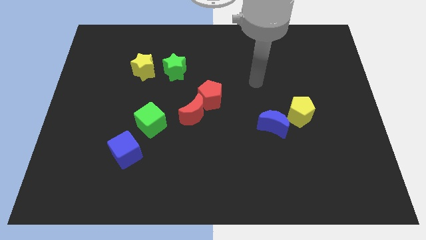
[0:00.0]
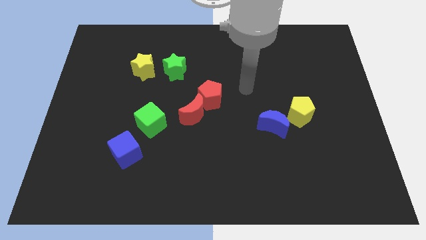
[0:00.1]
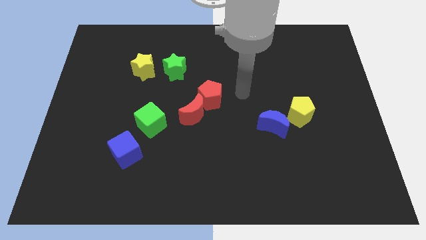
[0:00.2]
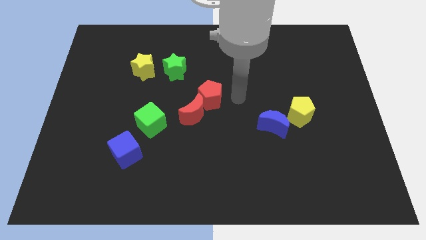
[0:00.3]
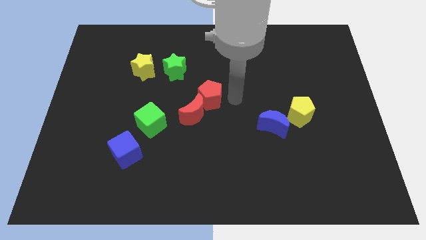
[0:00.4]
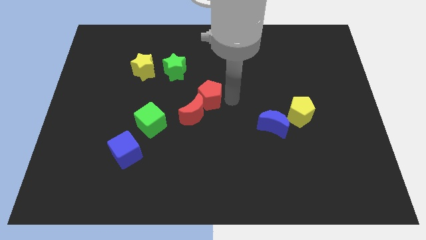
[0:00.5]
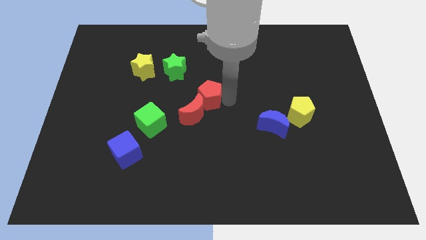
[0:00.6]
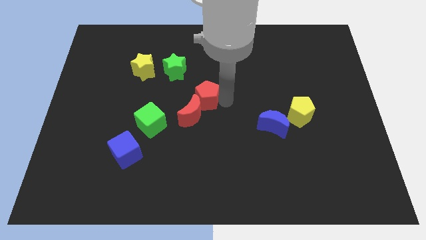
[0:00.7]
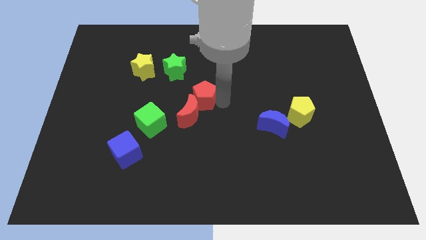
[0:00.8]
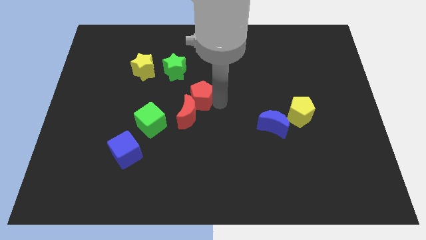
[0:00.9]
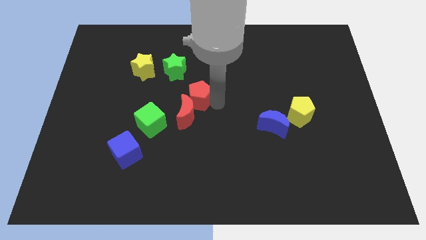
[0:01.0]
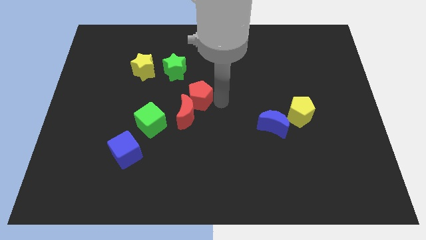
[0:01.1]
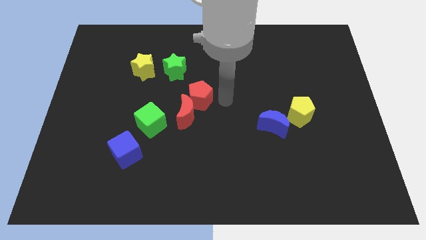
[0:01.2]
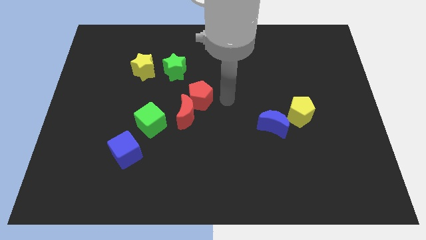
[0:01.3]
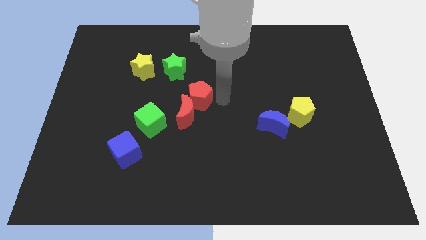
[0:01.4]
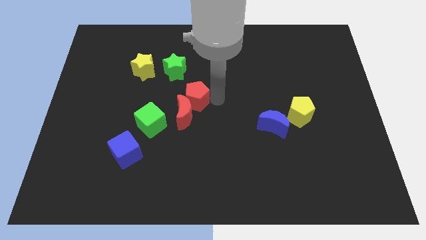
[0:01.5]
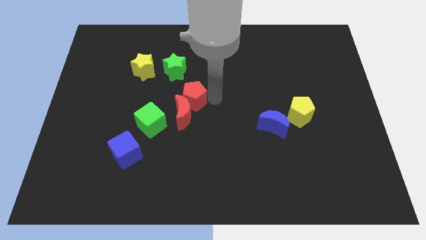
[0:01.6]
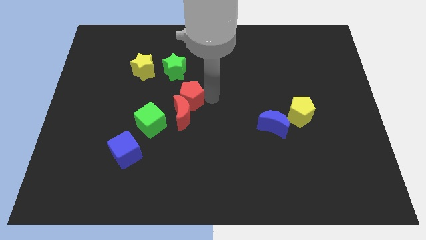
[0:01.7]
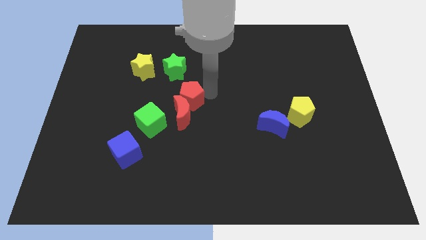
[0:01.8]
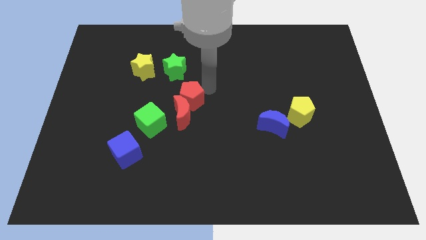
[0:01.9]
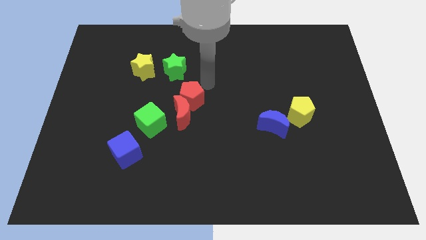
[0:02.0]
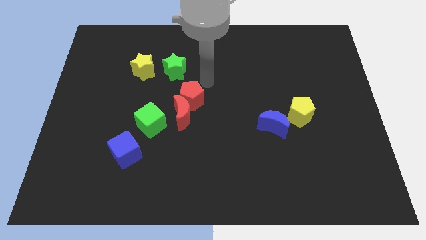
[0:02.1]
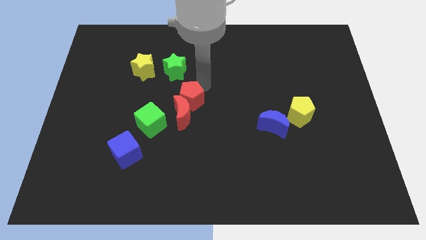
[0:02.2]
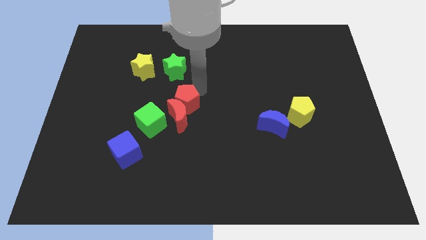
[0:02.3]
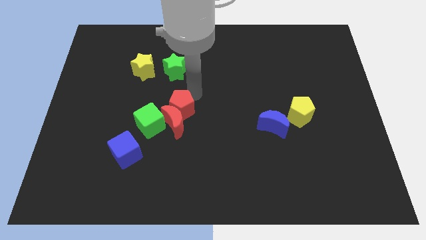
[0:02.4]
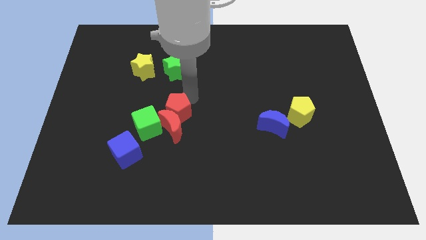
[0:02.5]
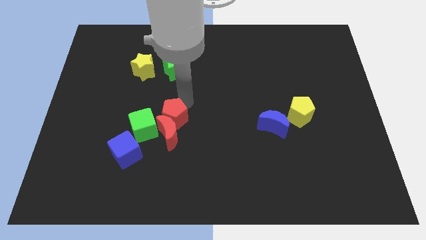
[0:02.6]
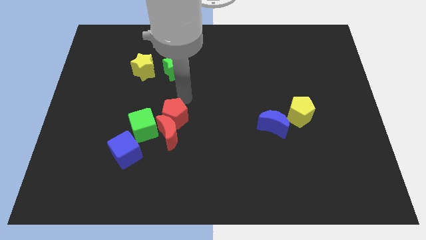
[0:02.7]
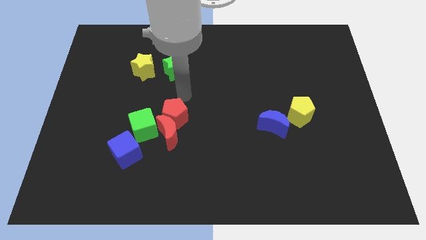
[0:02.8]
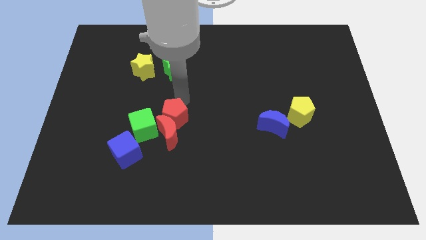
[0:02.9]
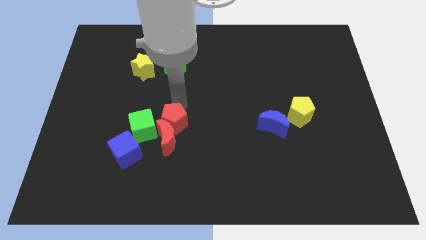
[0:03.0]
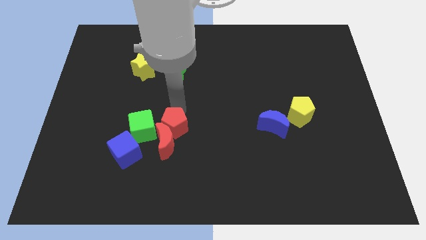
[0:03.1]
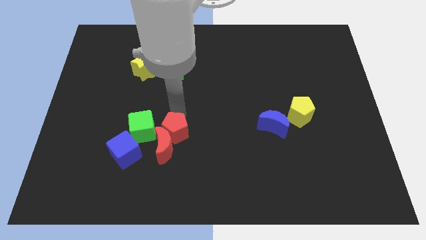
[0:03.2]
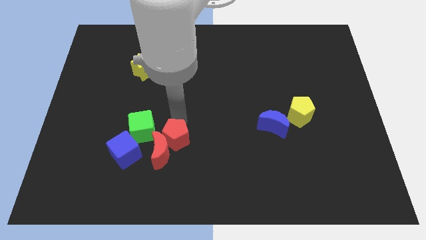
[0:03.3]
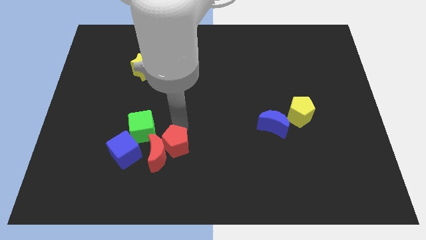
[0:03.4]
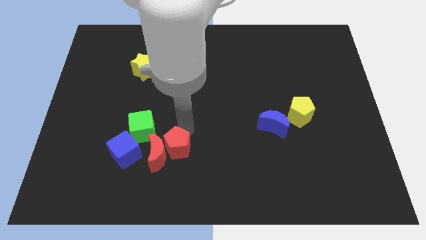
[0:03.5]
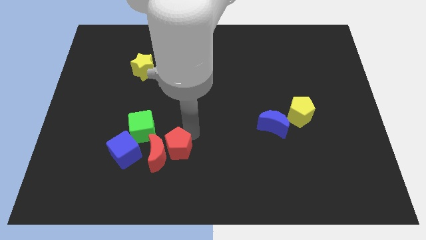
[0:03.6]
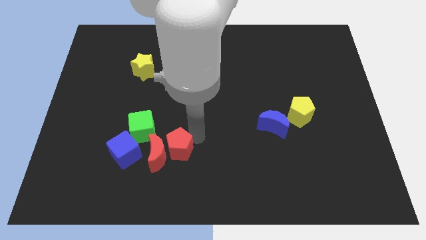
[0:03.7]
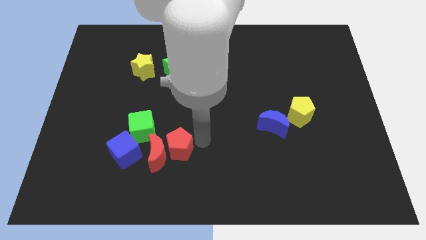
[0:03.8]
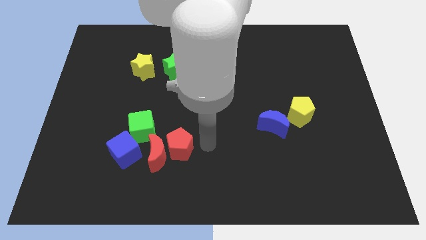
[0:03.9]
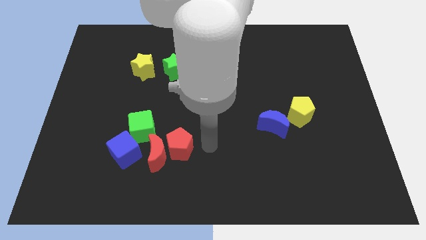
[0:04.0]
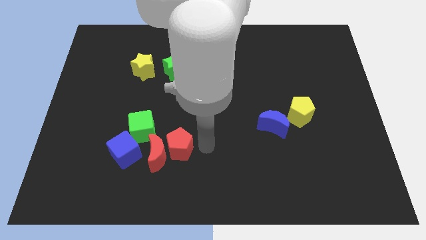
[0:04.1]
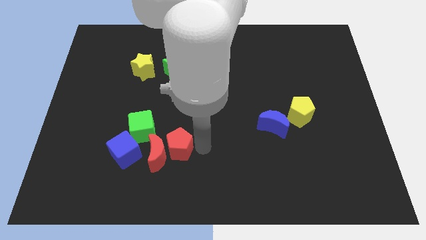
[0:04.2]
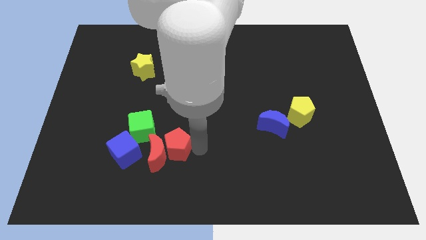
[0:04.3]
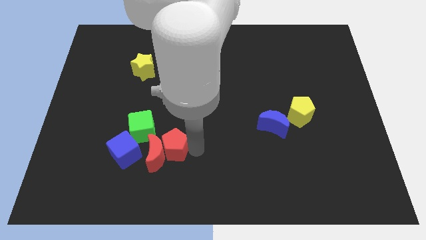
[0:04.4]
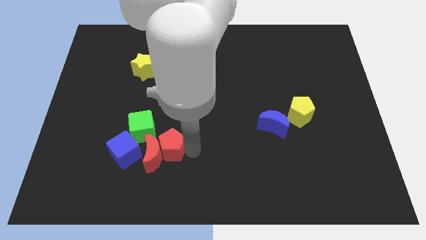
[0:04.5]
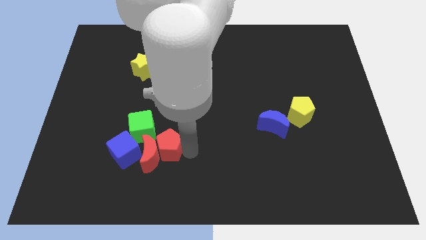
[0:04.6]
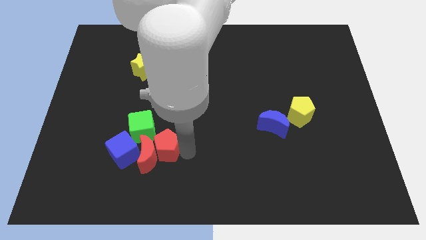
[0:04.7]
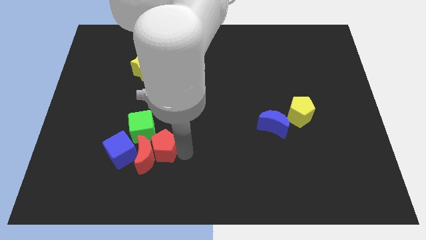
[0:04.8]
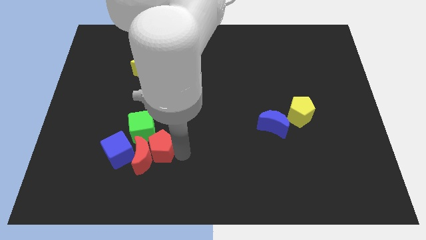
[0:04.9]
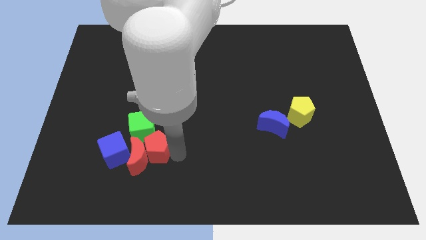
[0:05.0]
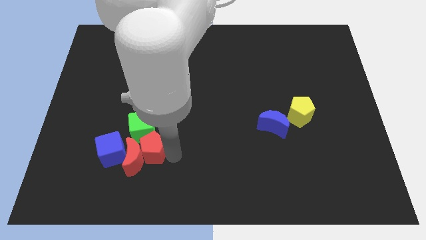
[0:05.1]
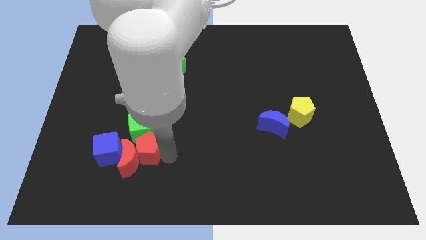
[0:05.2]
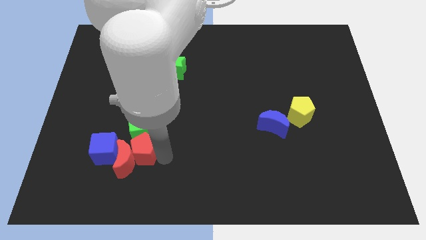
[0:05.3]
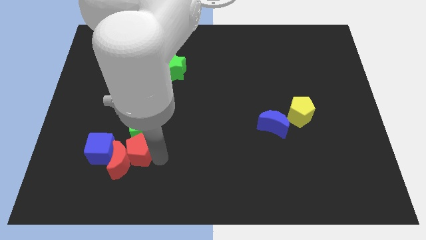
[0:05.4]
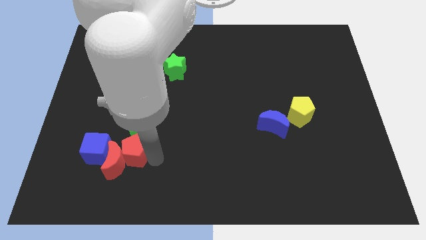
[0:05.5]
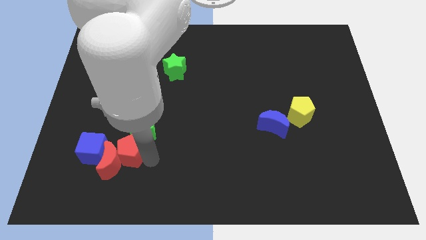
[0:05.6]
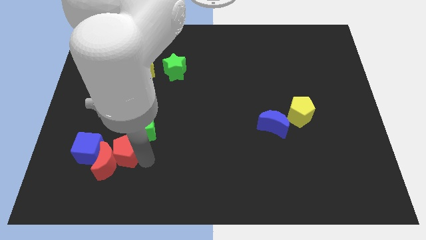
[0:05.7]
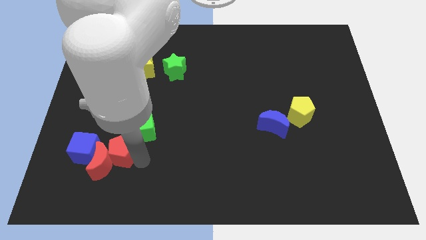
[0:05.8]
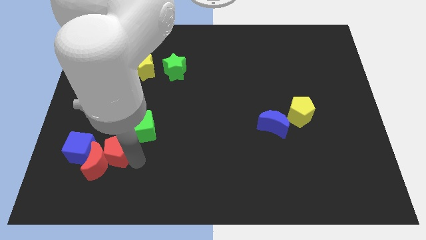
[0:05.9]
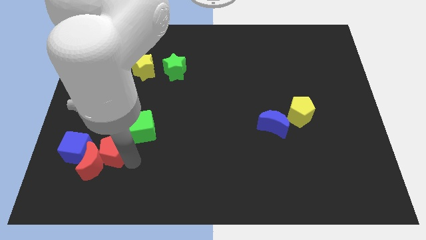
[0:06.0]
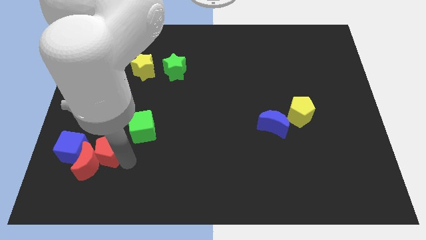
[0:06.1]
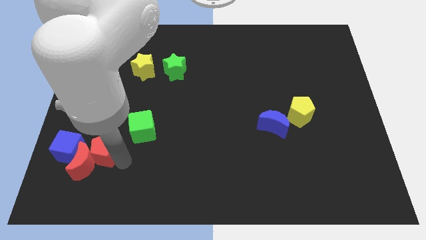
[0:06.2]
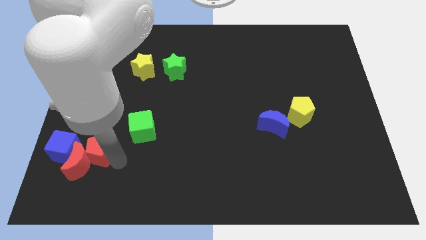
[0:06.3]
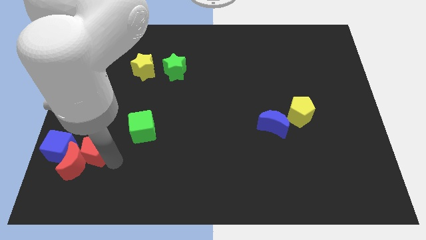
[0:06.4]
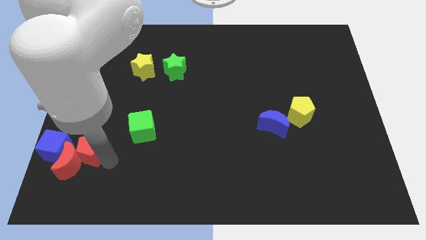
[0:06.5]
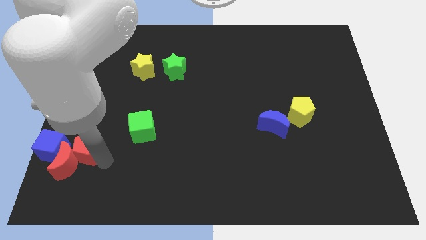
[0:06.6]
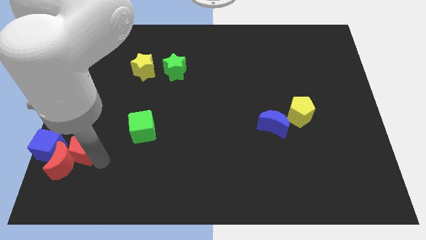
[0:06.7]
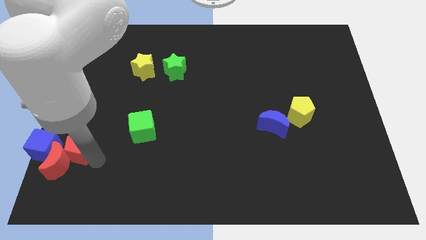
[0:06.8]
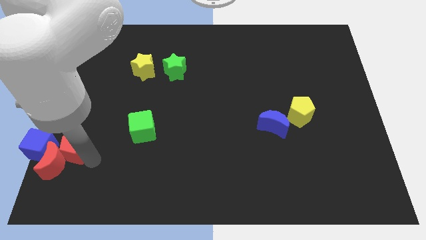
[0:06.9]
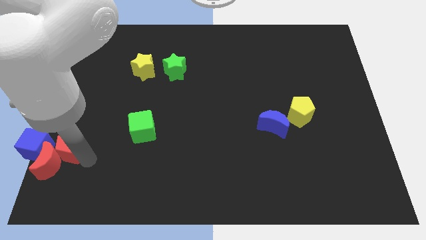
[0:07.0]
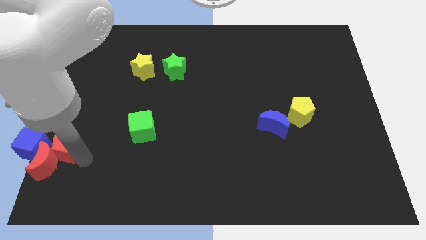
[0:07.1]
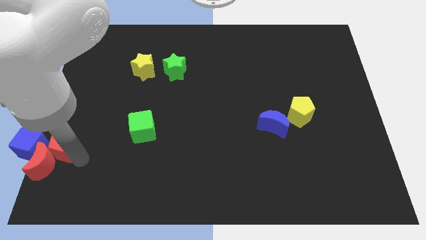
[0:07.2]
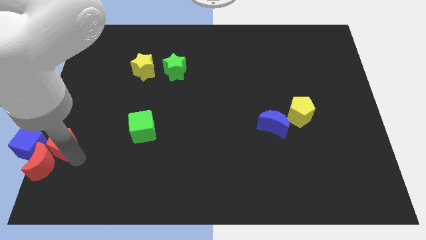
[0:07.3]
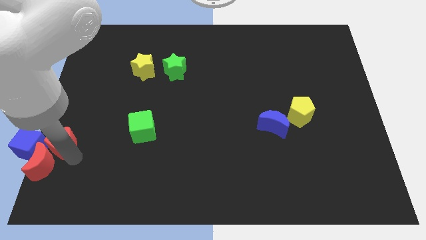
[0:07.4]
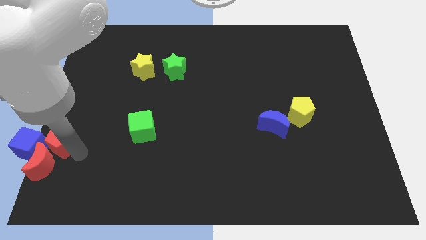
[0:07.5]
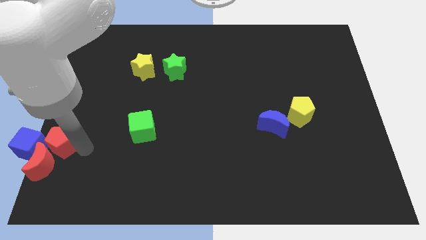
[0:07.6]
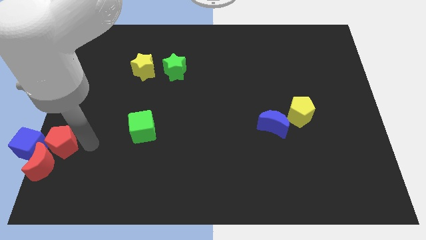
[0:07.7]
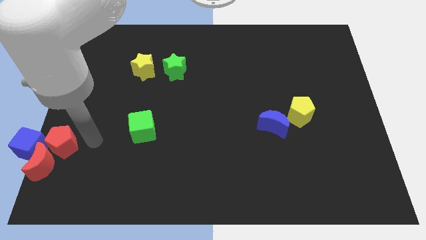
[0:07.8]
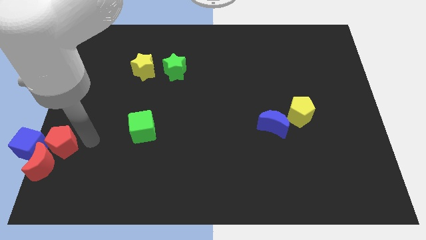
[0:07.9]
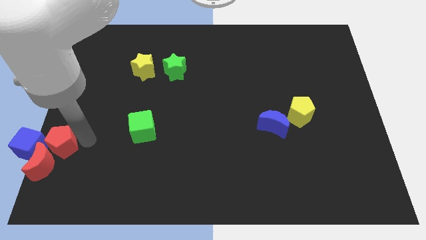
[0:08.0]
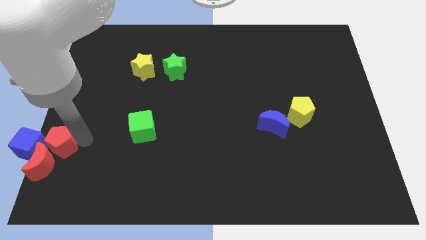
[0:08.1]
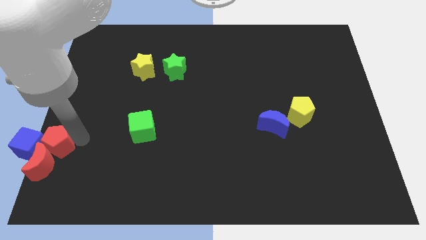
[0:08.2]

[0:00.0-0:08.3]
move the red pentagon close to the blue cube
